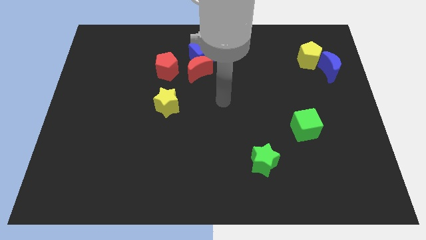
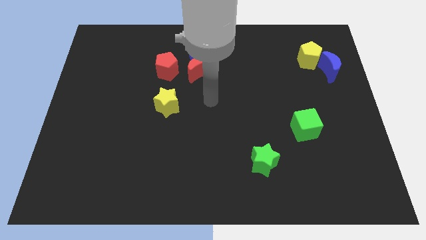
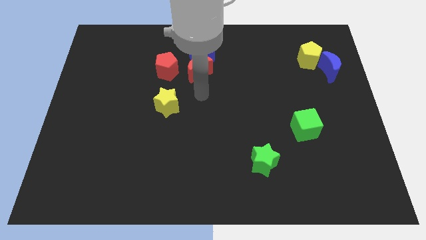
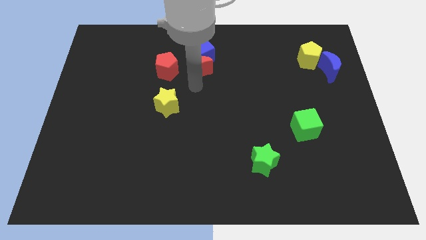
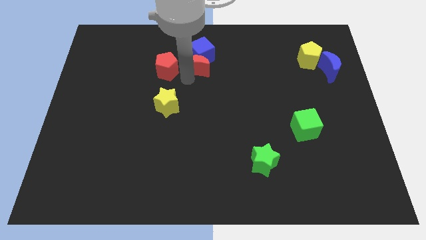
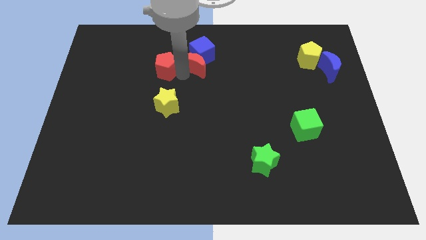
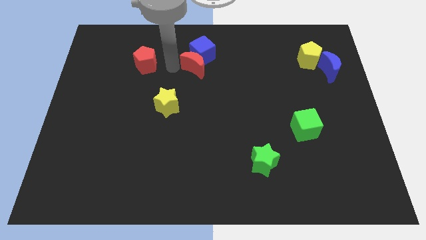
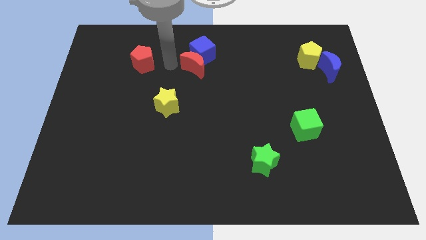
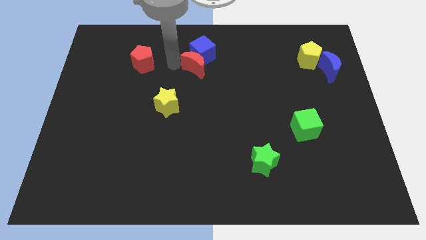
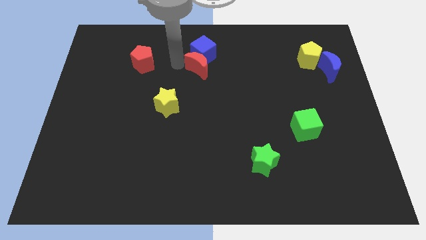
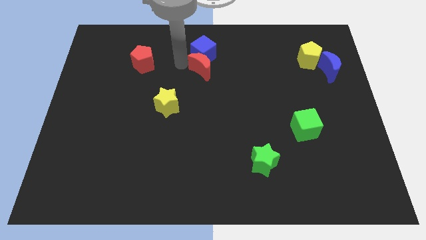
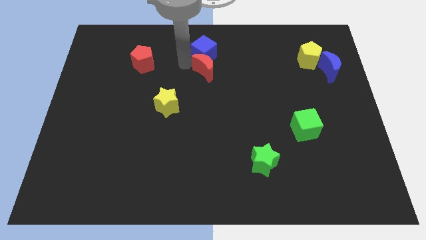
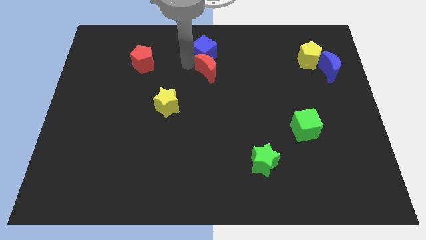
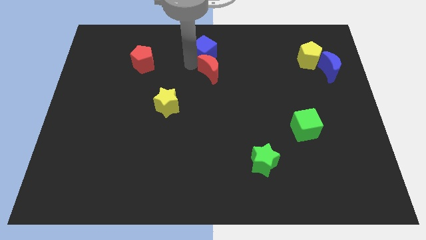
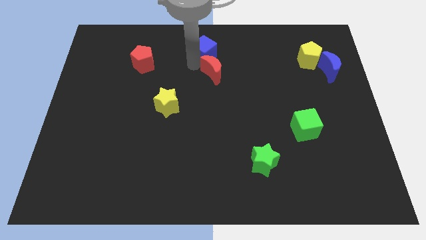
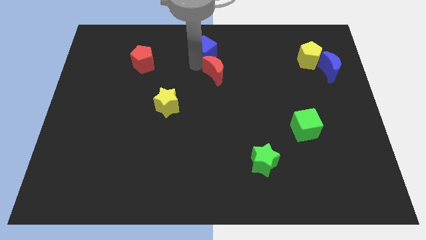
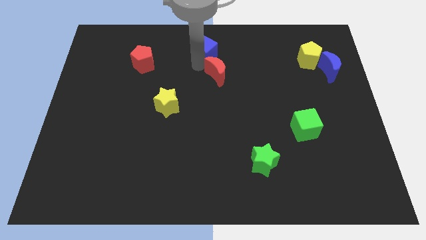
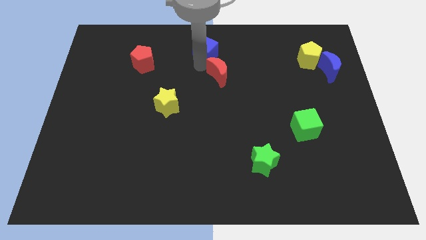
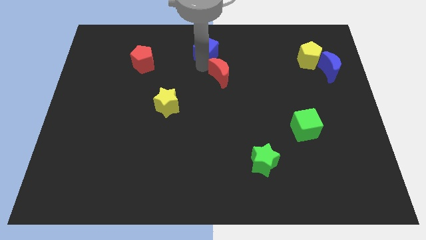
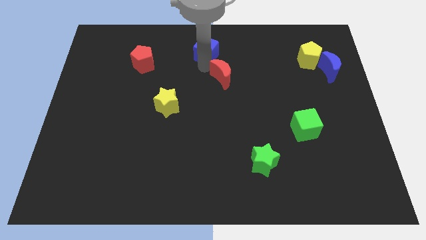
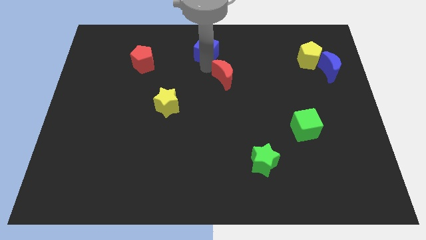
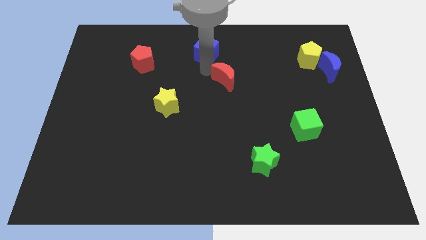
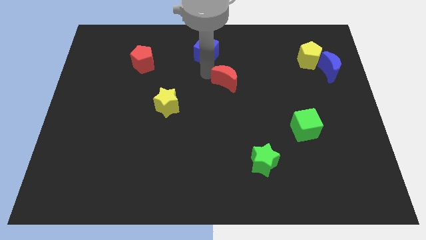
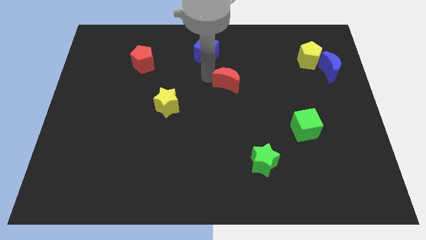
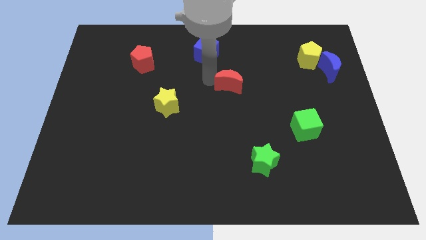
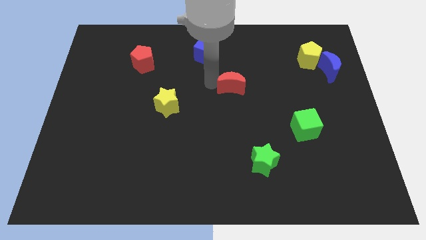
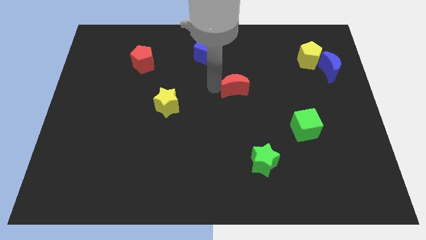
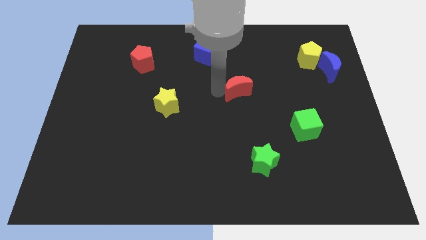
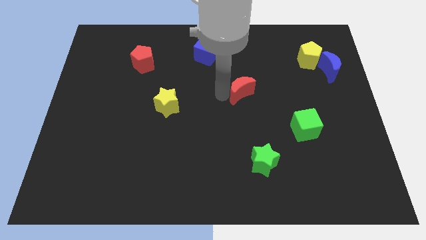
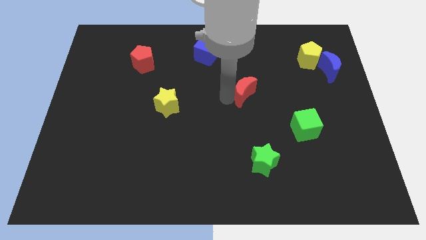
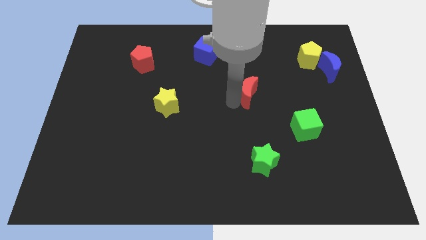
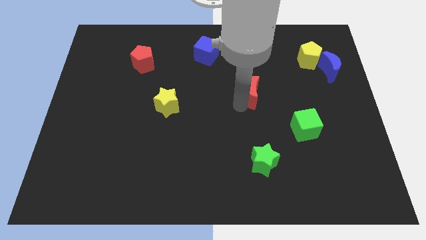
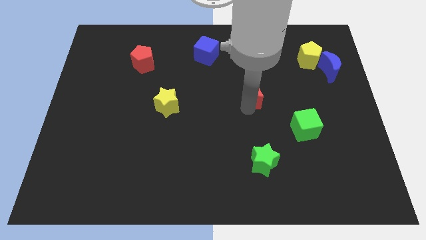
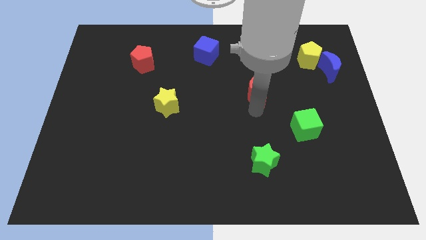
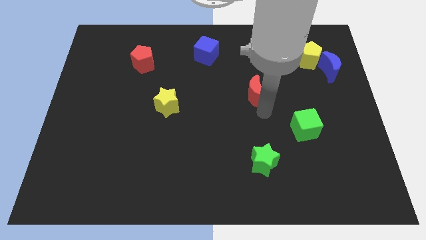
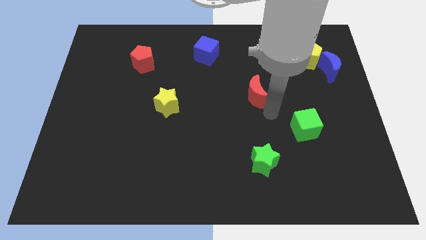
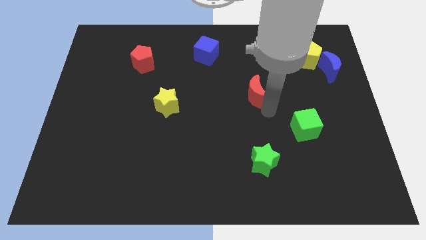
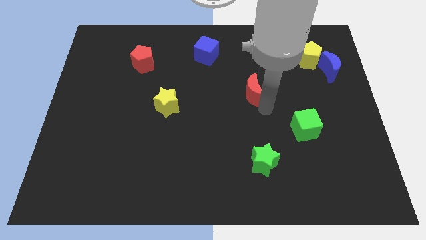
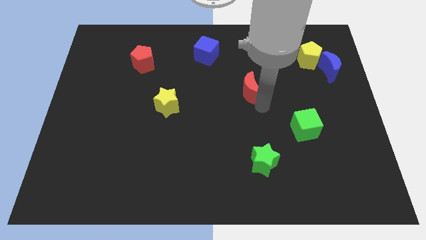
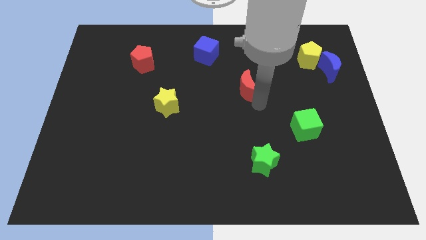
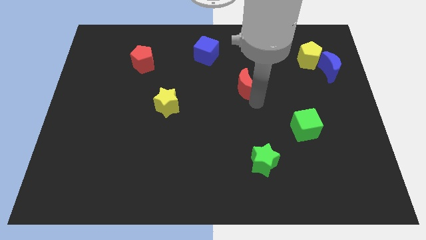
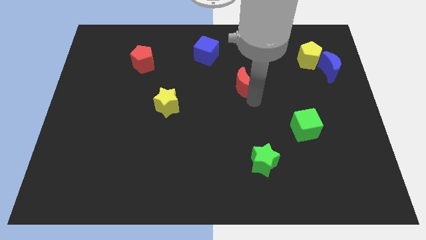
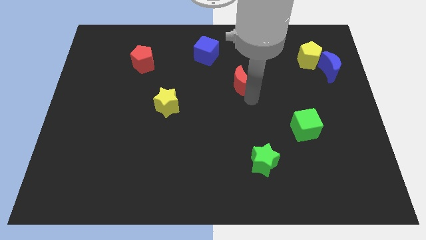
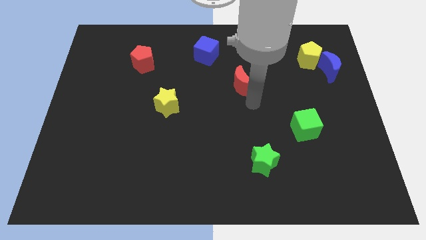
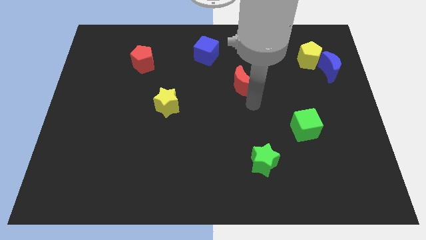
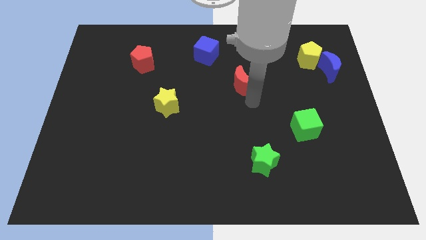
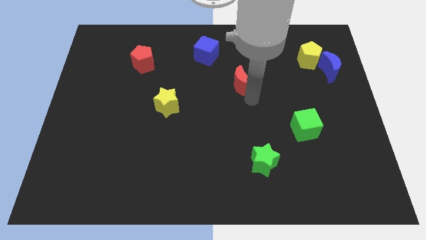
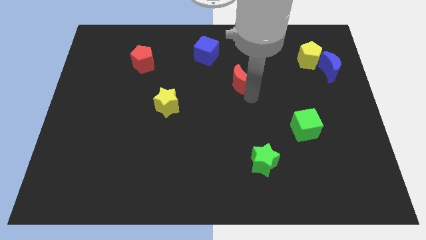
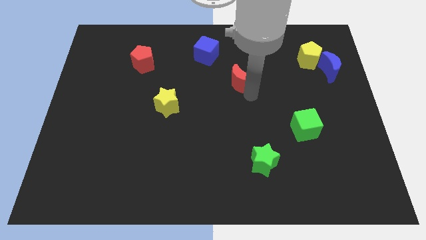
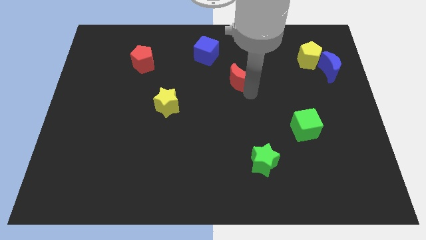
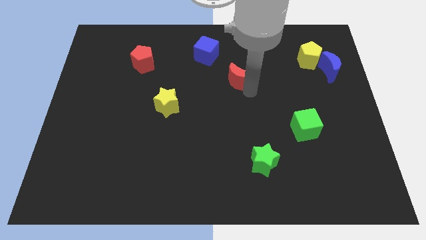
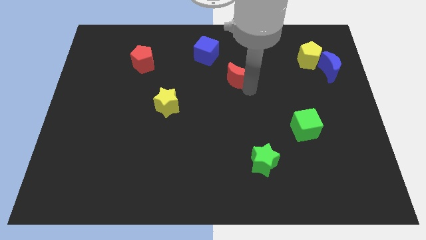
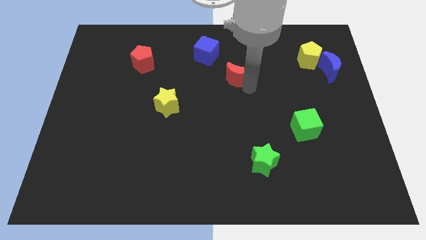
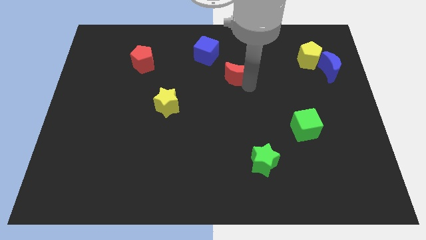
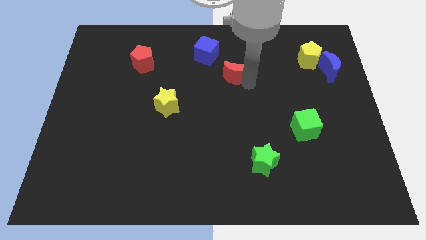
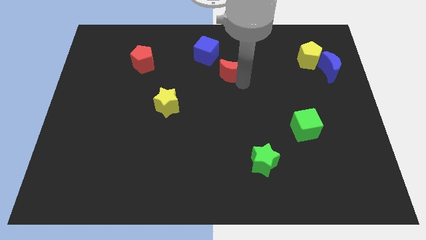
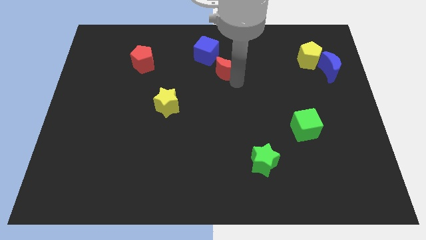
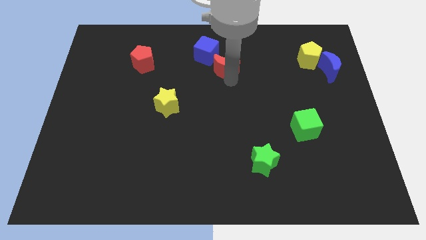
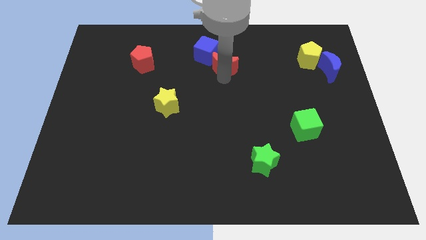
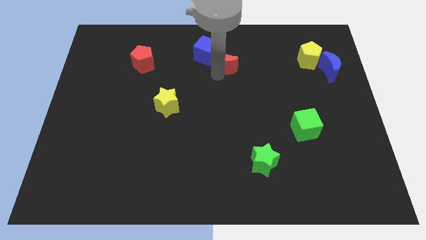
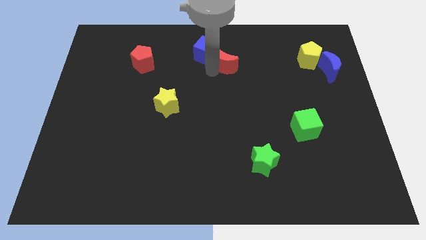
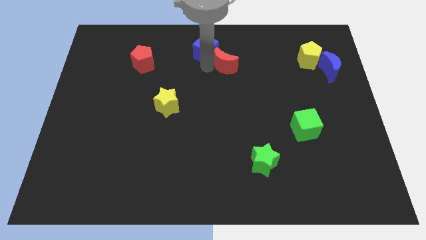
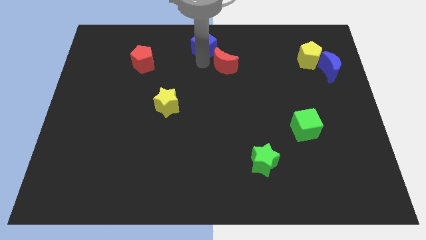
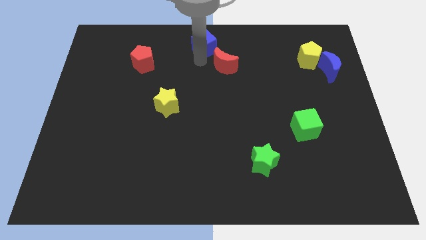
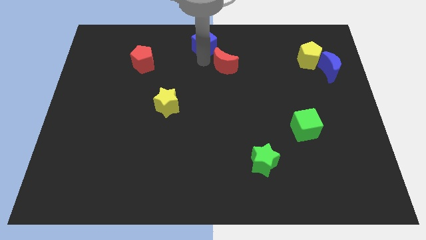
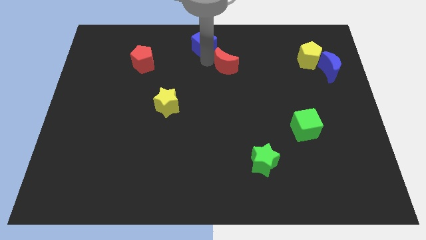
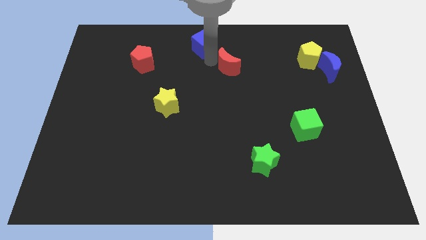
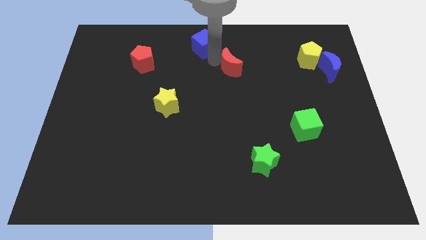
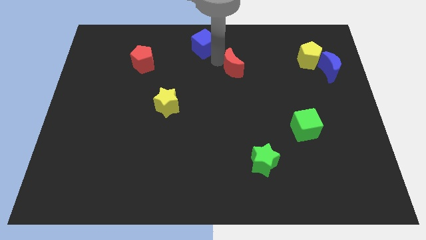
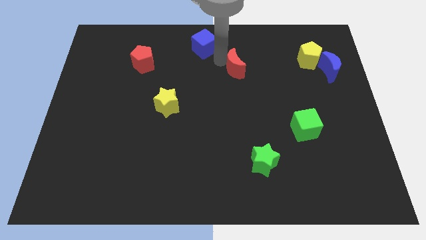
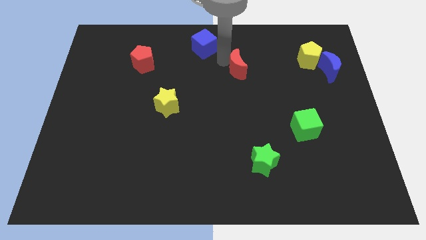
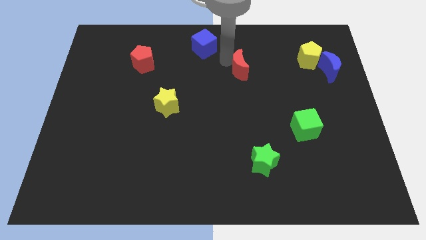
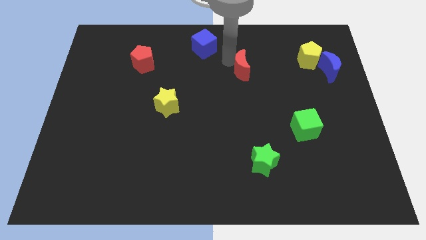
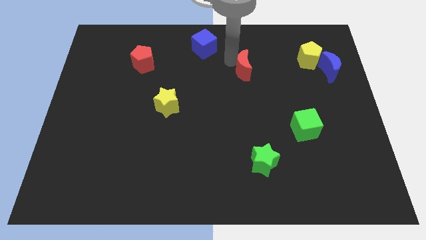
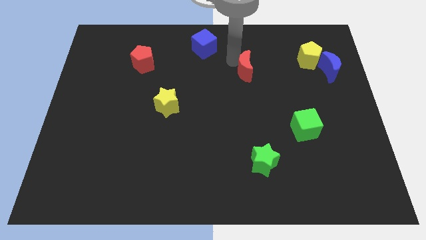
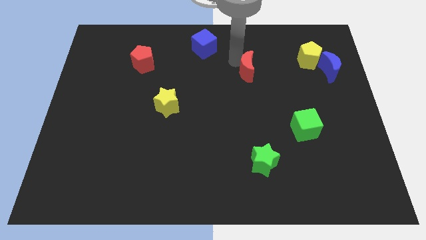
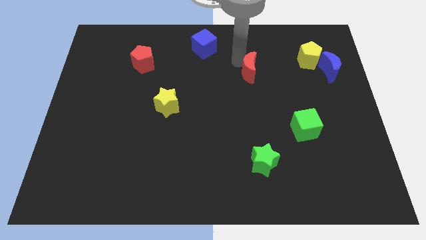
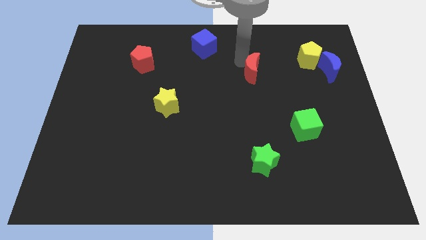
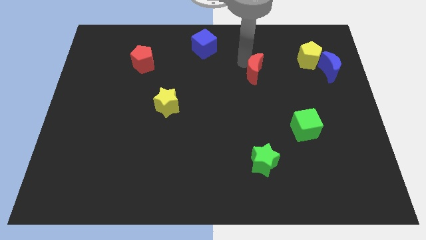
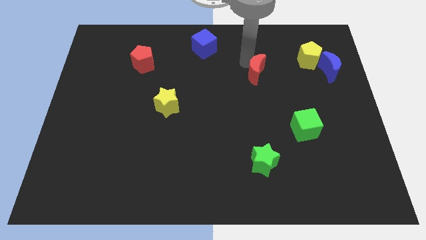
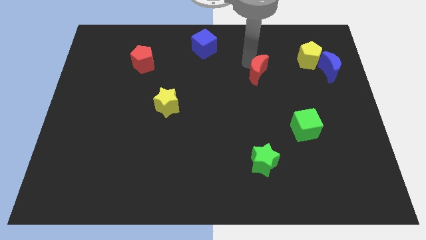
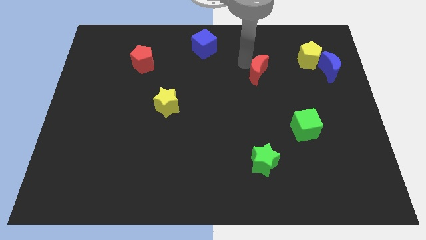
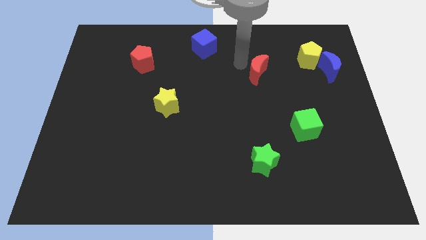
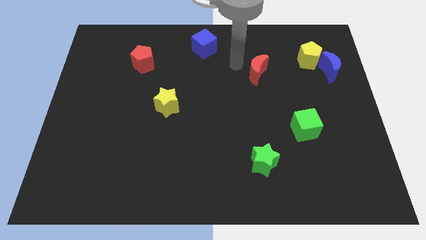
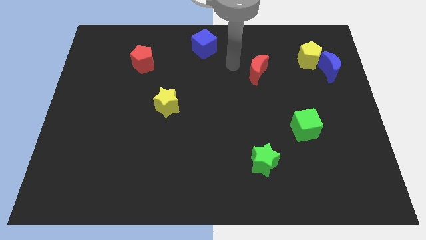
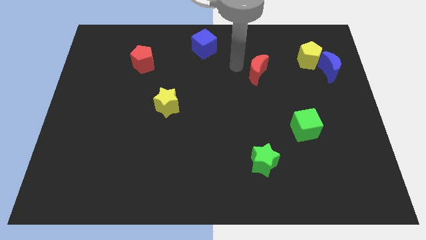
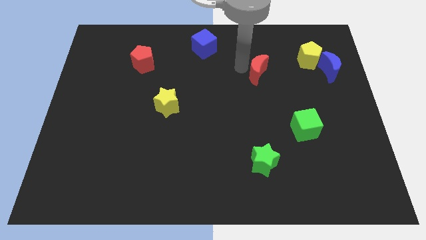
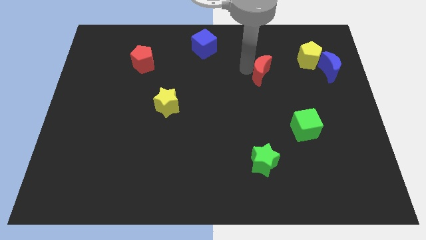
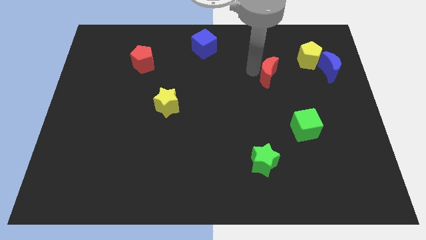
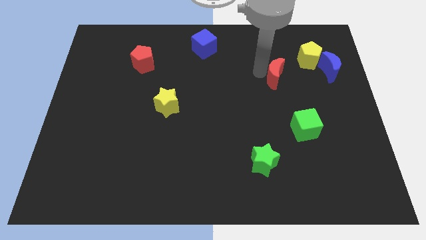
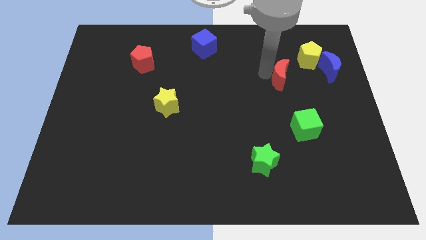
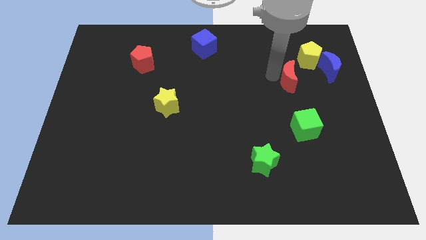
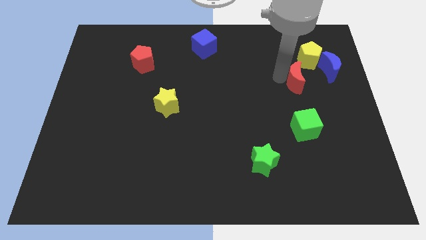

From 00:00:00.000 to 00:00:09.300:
slide the red moon to the bottom left of the blue moon
